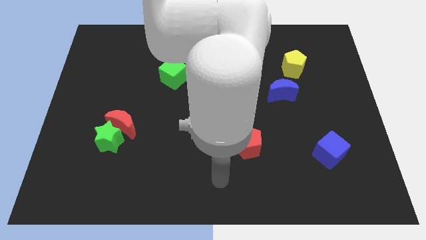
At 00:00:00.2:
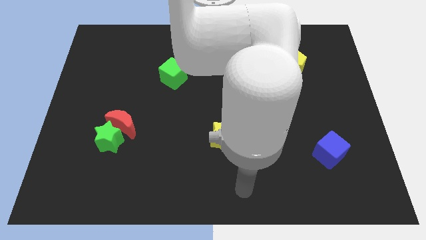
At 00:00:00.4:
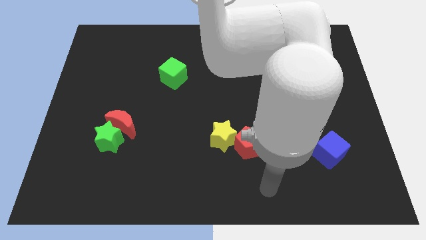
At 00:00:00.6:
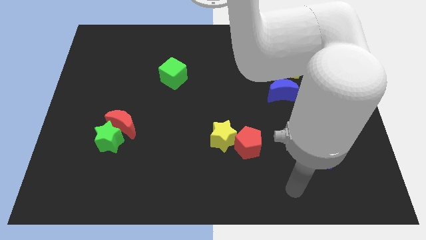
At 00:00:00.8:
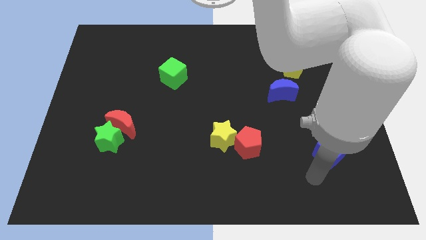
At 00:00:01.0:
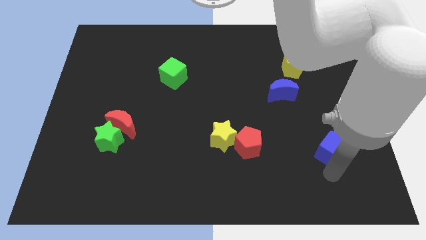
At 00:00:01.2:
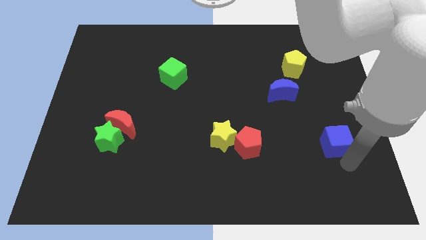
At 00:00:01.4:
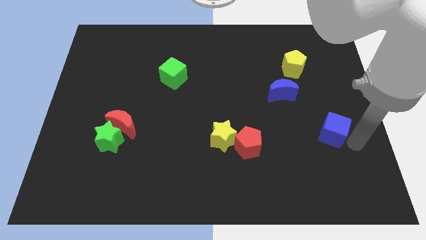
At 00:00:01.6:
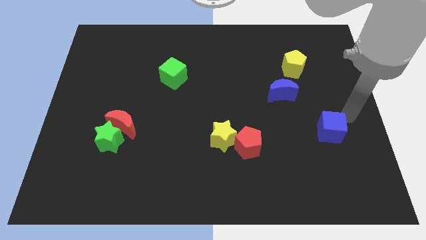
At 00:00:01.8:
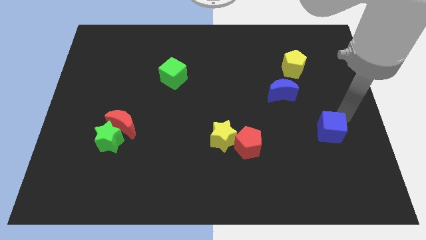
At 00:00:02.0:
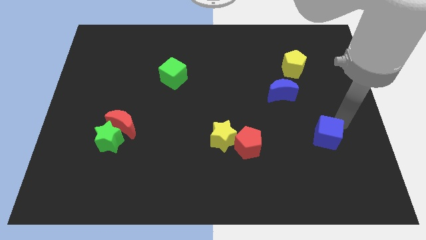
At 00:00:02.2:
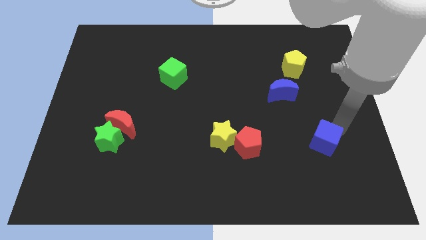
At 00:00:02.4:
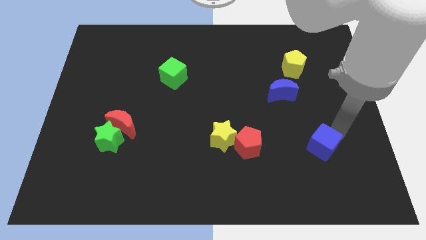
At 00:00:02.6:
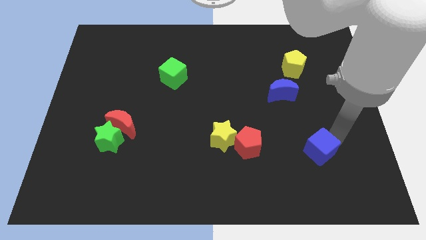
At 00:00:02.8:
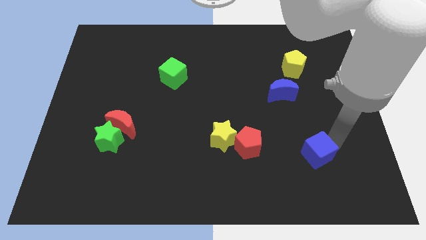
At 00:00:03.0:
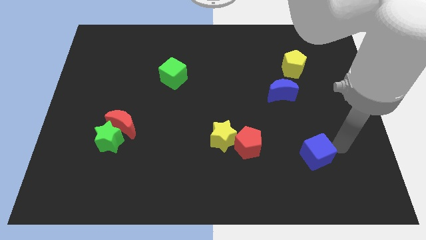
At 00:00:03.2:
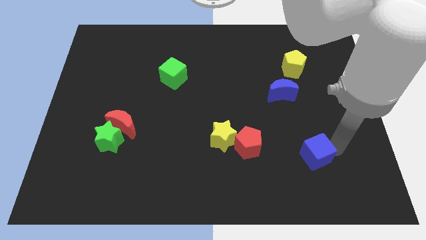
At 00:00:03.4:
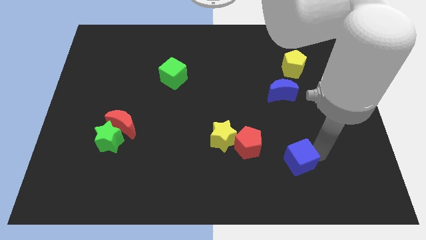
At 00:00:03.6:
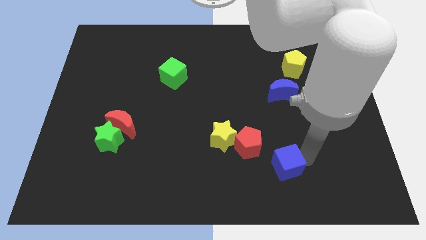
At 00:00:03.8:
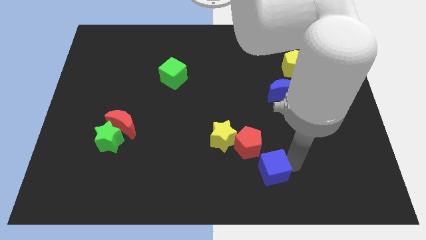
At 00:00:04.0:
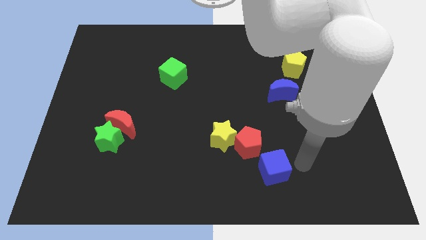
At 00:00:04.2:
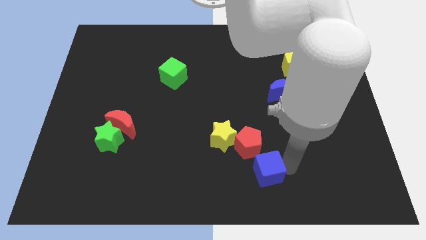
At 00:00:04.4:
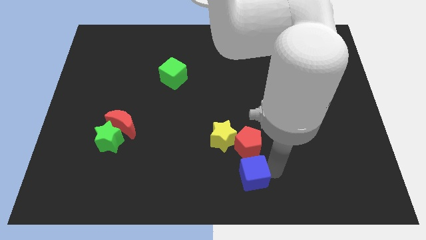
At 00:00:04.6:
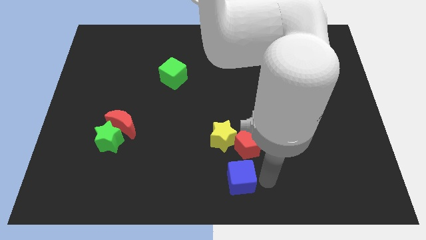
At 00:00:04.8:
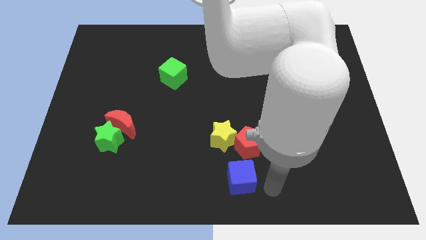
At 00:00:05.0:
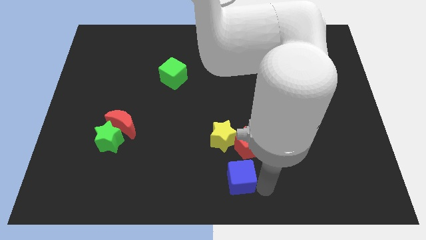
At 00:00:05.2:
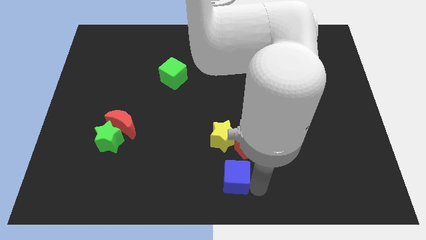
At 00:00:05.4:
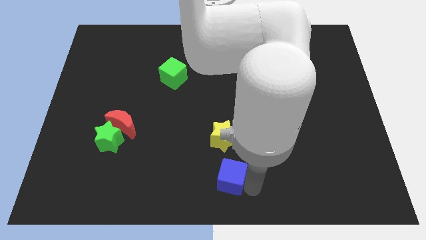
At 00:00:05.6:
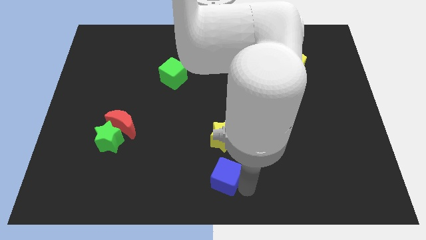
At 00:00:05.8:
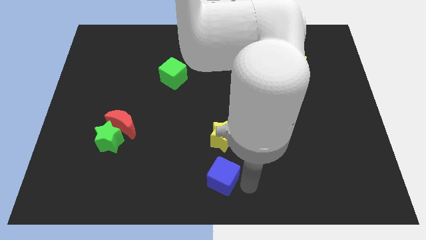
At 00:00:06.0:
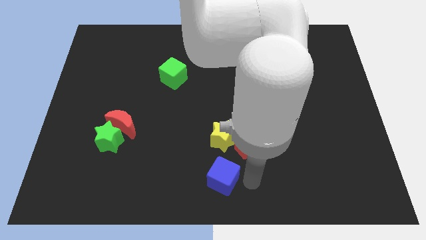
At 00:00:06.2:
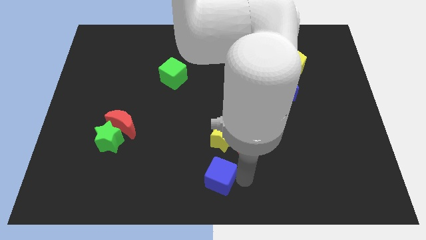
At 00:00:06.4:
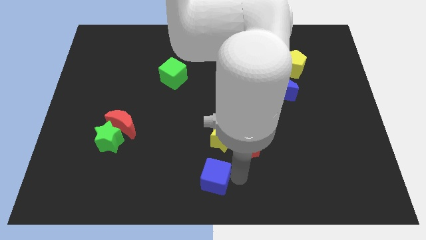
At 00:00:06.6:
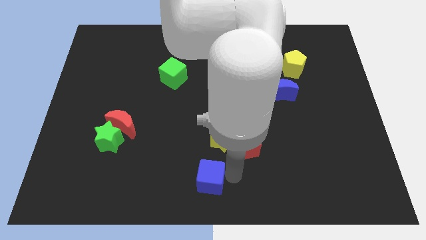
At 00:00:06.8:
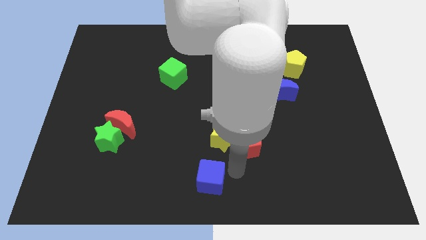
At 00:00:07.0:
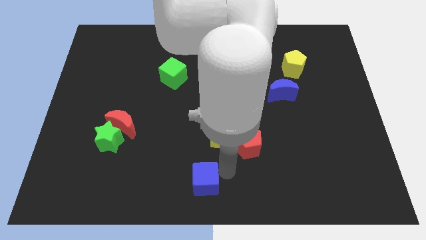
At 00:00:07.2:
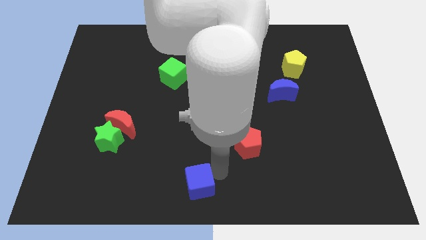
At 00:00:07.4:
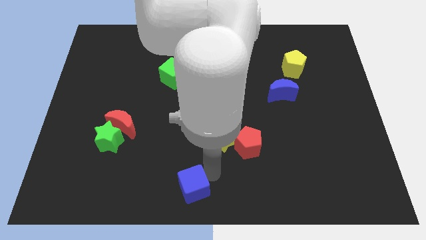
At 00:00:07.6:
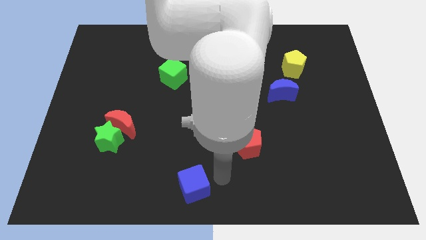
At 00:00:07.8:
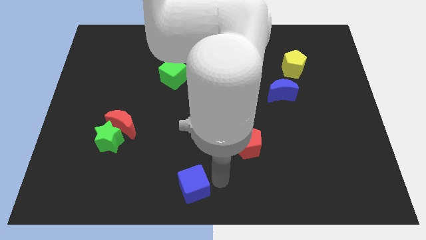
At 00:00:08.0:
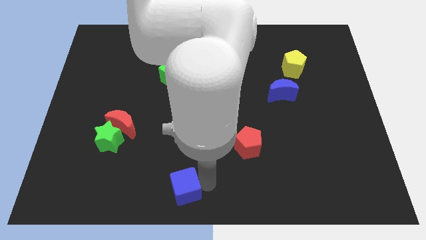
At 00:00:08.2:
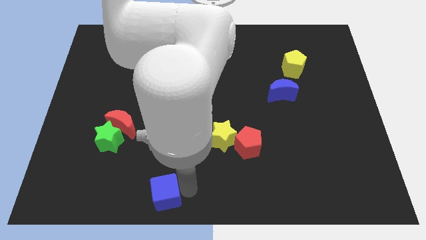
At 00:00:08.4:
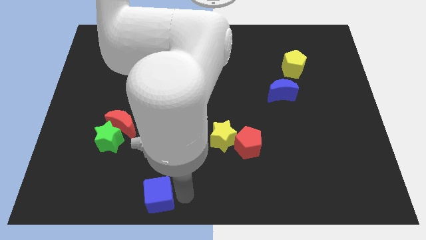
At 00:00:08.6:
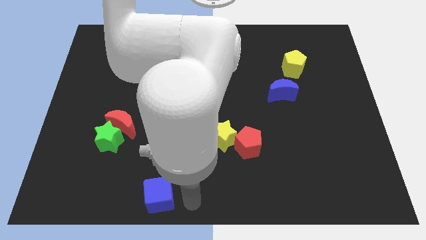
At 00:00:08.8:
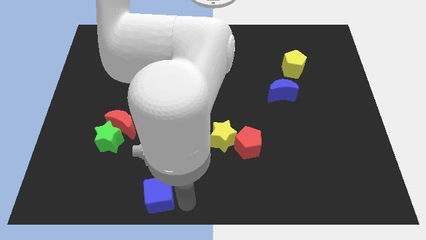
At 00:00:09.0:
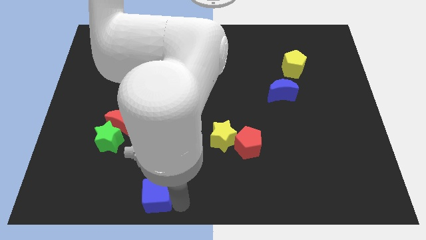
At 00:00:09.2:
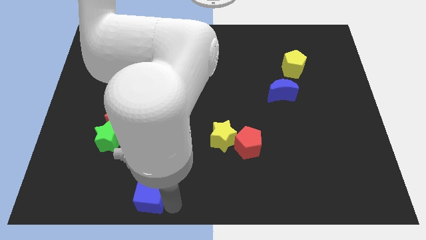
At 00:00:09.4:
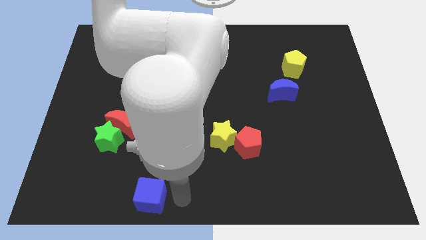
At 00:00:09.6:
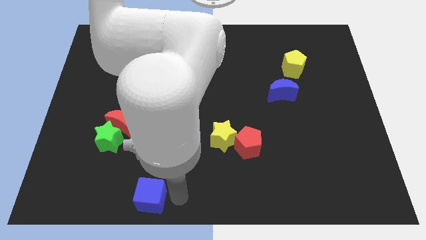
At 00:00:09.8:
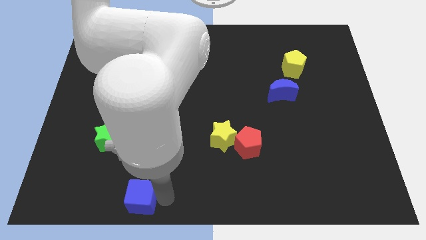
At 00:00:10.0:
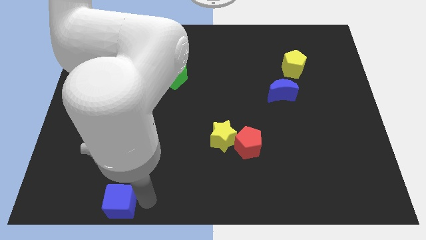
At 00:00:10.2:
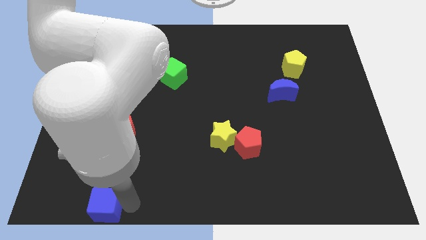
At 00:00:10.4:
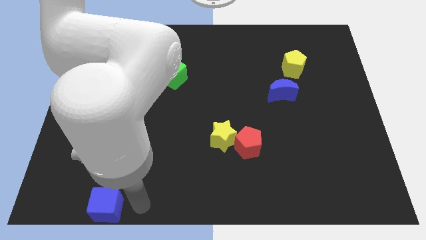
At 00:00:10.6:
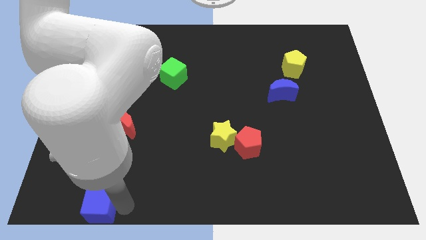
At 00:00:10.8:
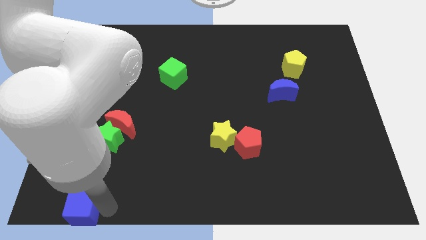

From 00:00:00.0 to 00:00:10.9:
move the blue cube to the lower left corner

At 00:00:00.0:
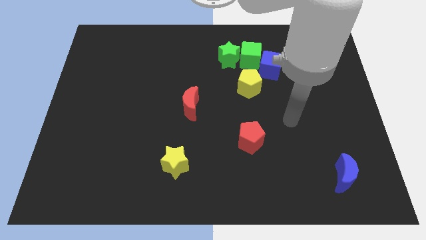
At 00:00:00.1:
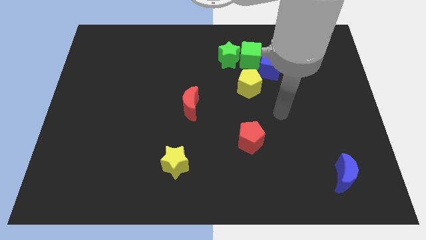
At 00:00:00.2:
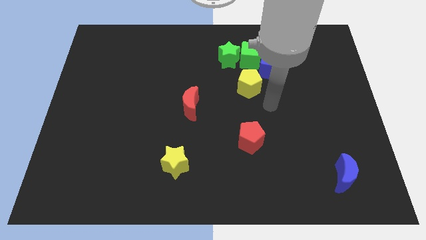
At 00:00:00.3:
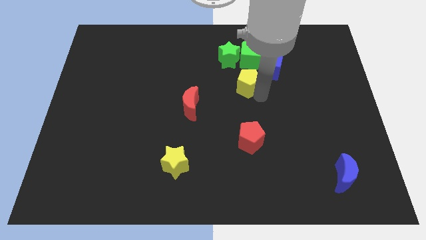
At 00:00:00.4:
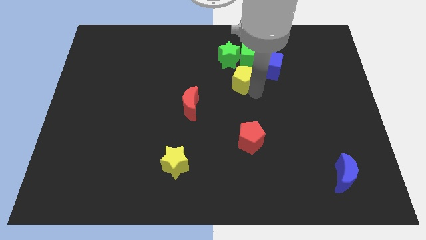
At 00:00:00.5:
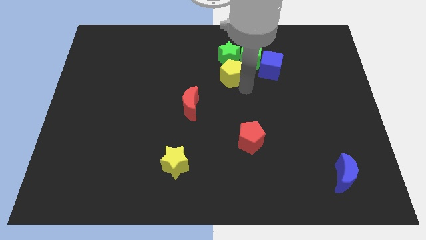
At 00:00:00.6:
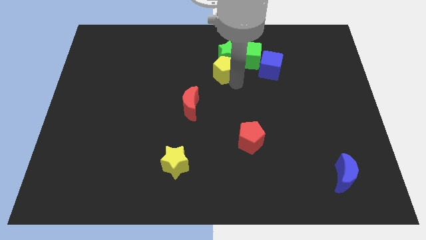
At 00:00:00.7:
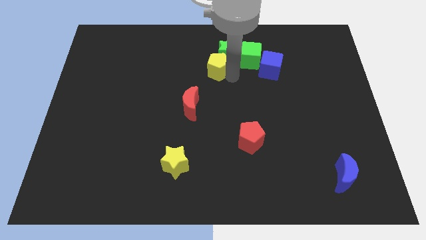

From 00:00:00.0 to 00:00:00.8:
move the green star to the towards your base
